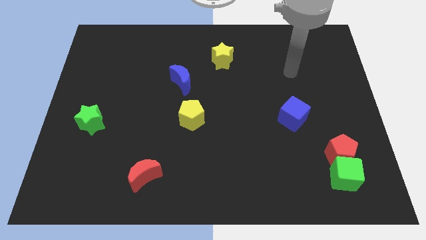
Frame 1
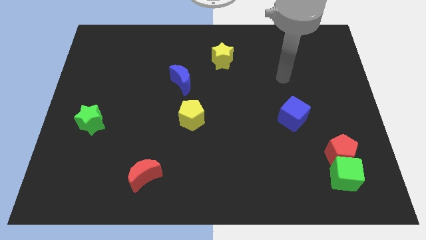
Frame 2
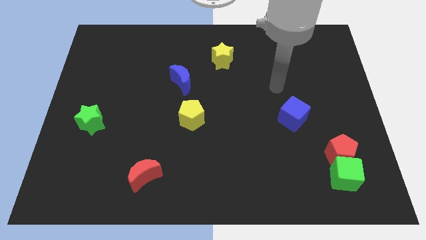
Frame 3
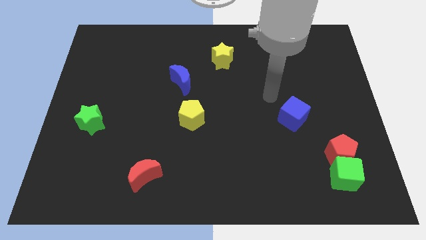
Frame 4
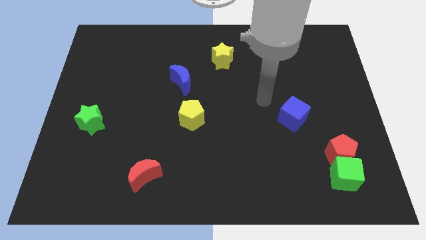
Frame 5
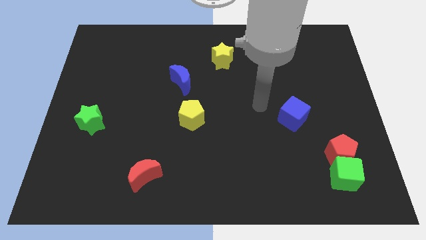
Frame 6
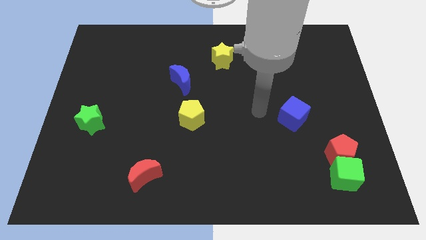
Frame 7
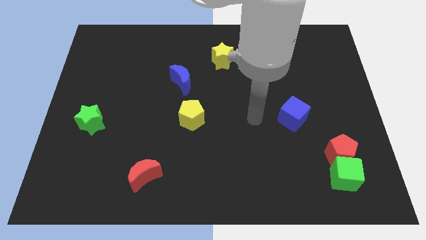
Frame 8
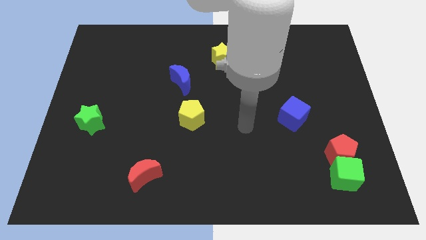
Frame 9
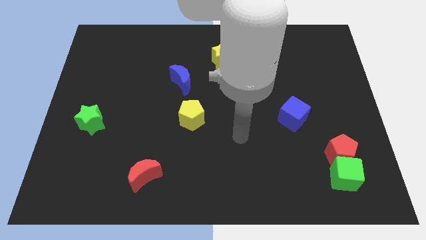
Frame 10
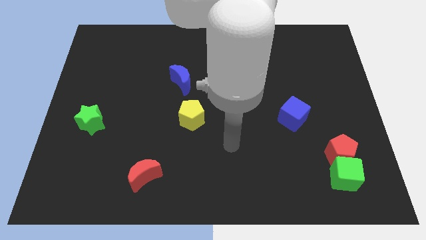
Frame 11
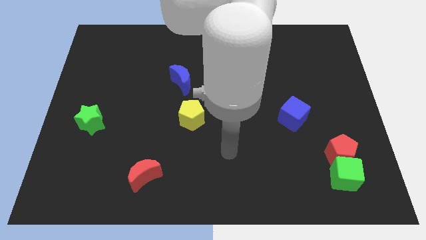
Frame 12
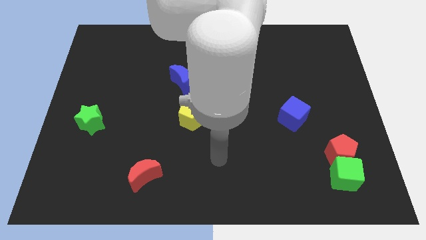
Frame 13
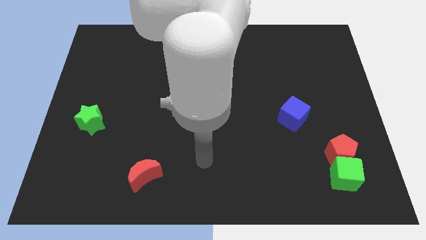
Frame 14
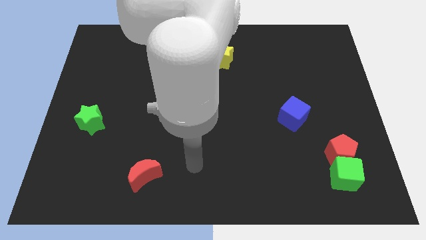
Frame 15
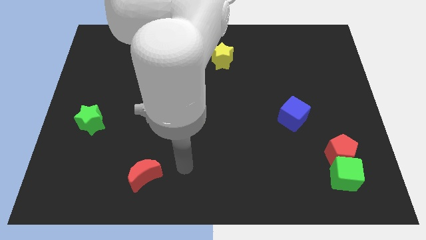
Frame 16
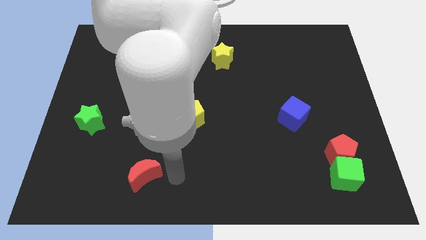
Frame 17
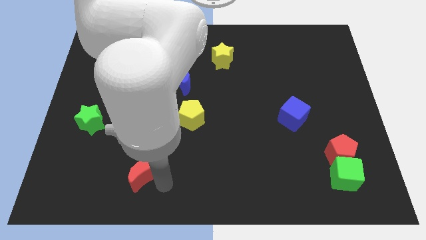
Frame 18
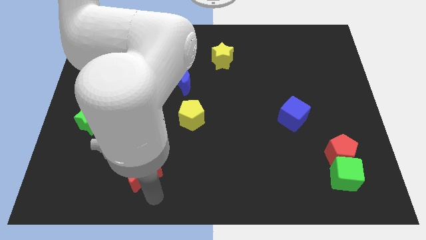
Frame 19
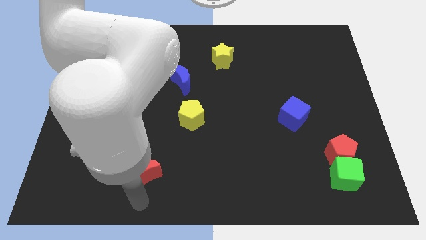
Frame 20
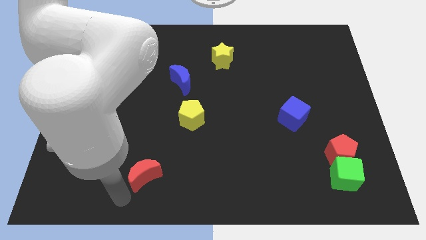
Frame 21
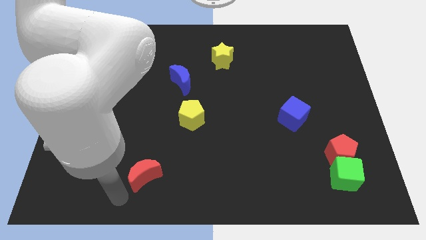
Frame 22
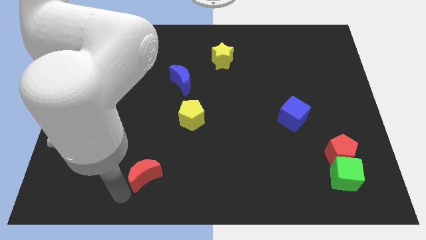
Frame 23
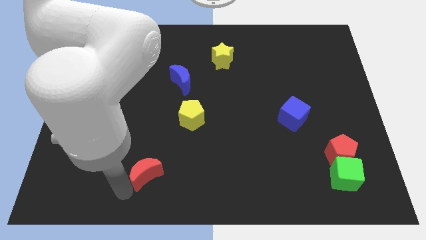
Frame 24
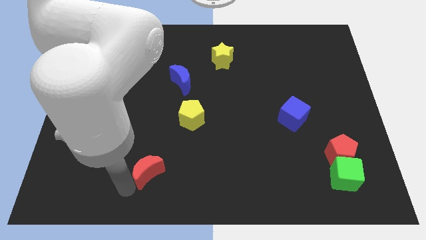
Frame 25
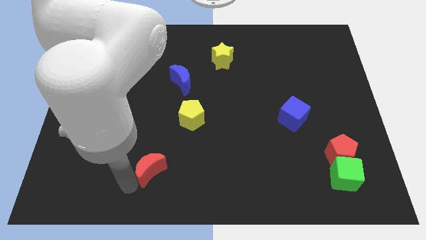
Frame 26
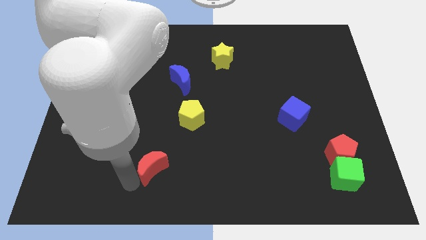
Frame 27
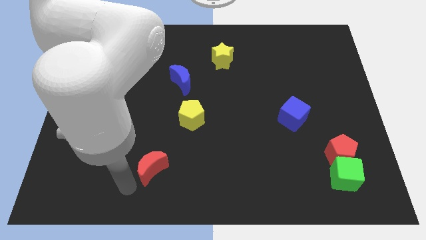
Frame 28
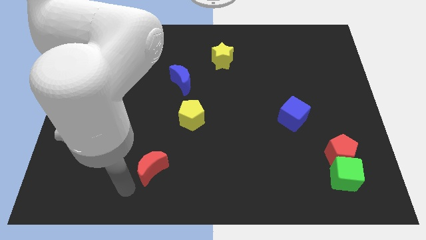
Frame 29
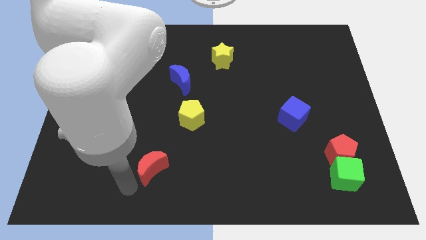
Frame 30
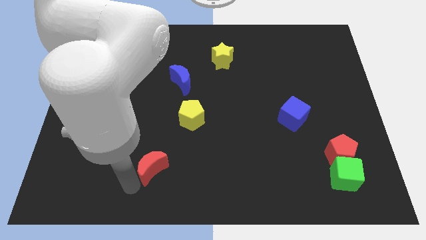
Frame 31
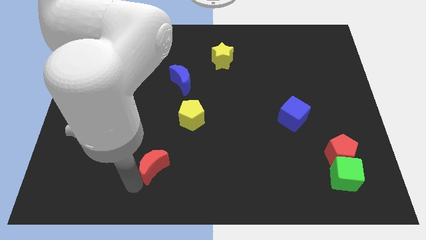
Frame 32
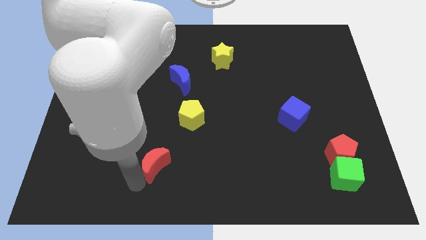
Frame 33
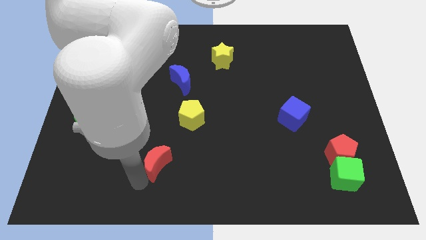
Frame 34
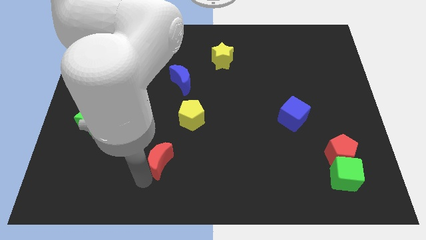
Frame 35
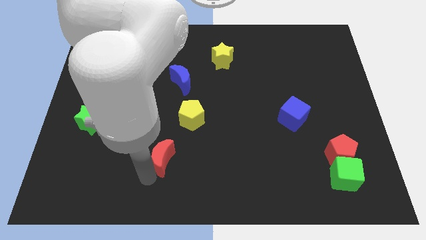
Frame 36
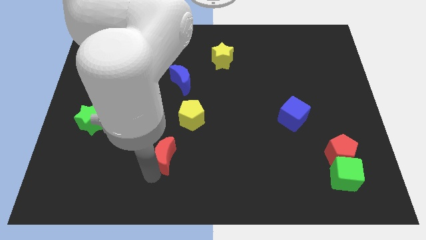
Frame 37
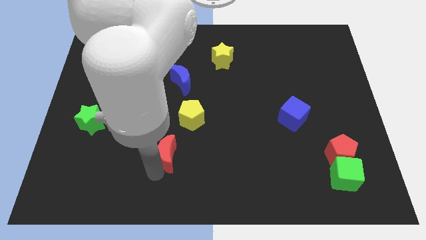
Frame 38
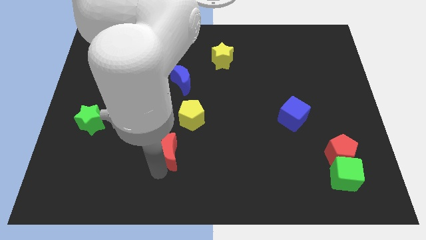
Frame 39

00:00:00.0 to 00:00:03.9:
push the red moon up and right slightly

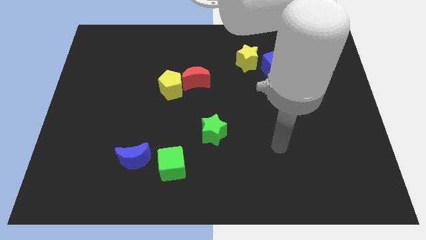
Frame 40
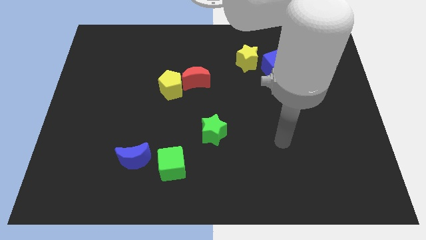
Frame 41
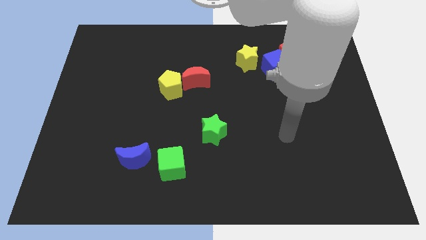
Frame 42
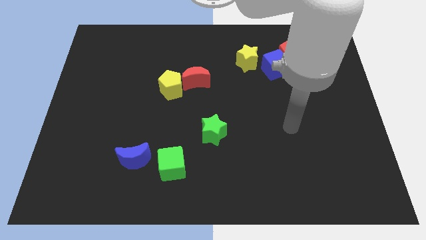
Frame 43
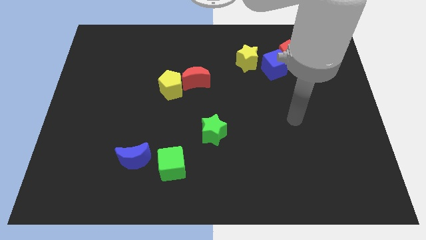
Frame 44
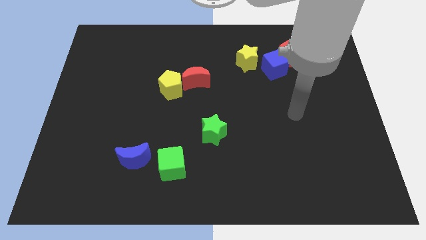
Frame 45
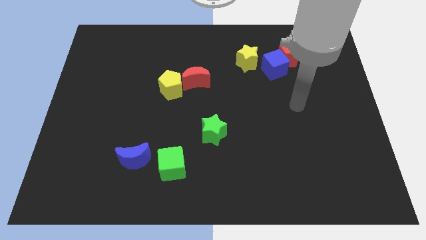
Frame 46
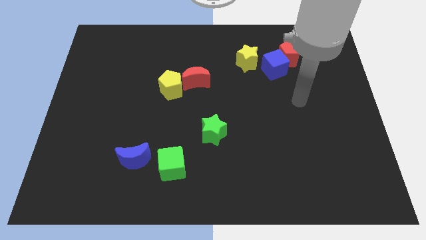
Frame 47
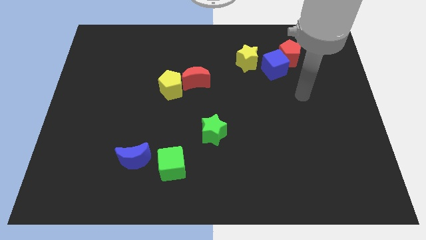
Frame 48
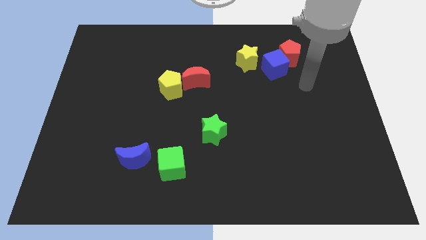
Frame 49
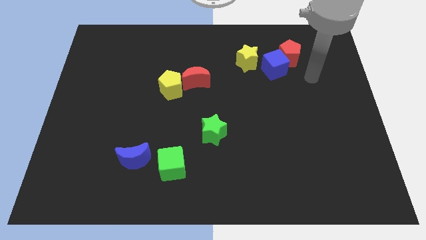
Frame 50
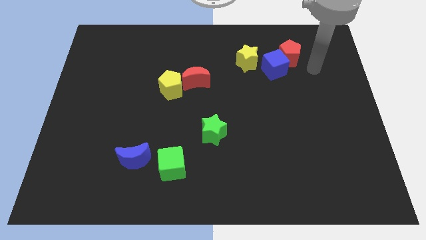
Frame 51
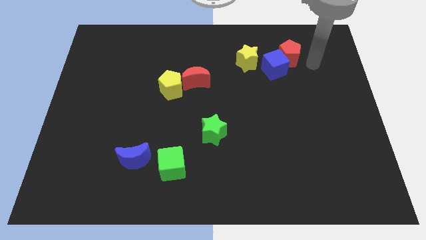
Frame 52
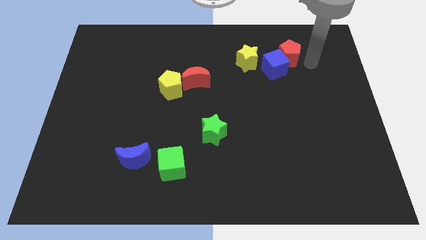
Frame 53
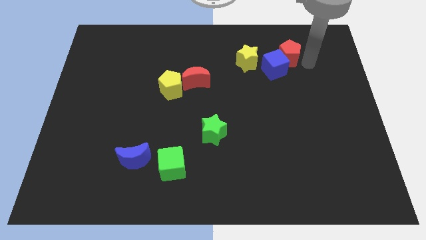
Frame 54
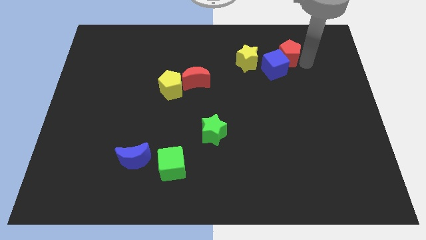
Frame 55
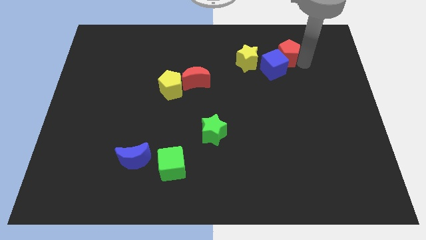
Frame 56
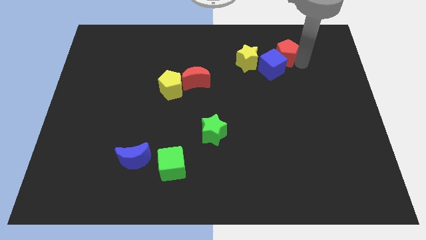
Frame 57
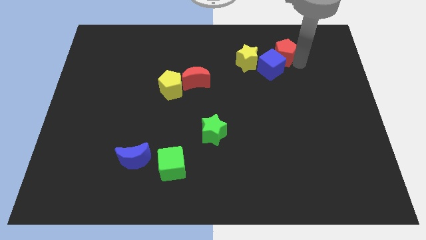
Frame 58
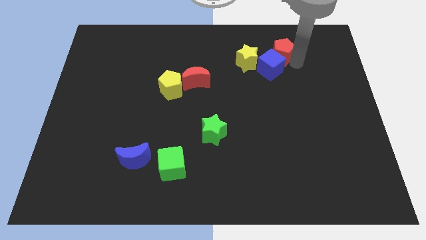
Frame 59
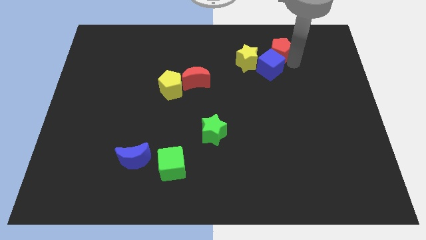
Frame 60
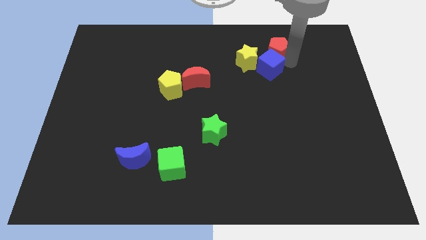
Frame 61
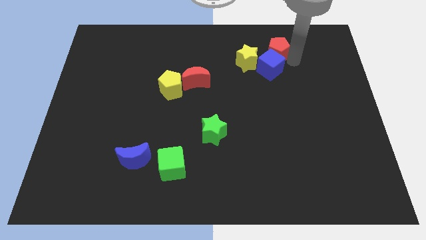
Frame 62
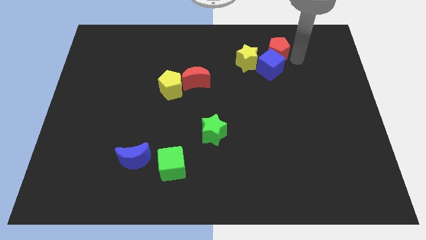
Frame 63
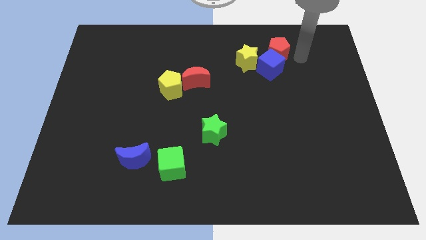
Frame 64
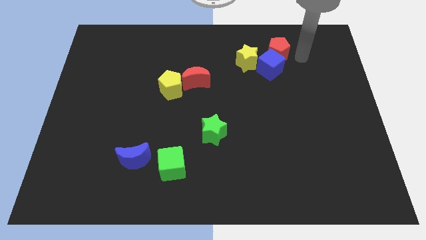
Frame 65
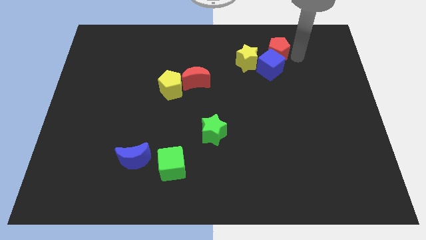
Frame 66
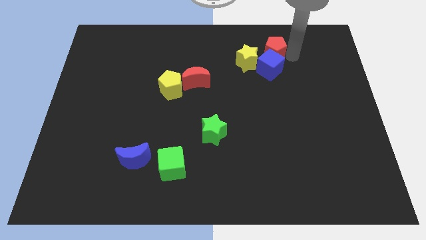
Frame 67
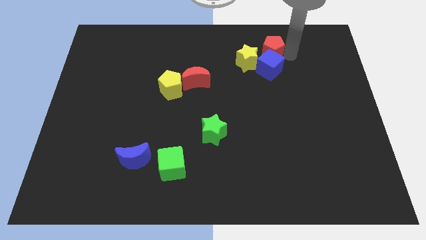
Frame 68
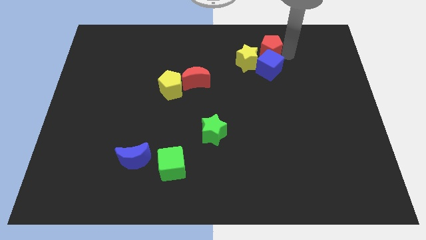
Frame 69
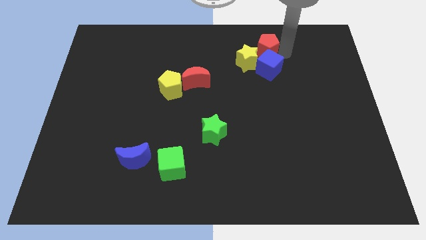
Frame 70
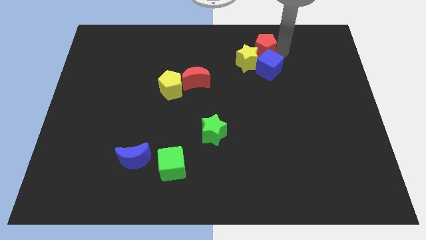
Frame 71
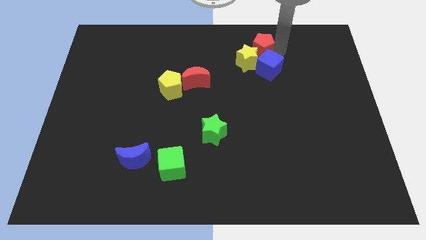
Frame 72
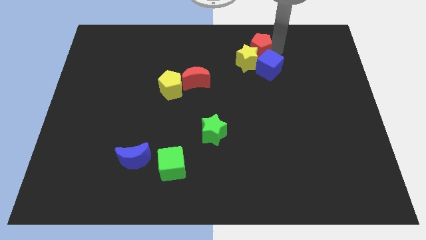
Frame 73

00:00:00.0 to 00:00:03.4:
slide the red pentagon a bit left

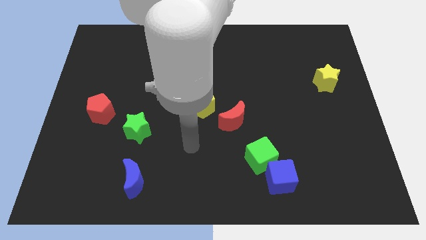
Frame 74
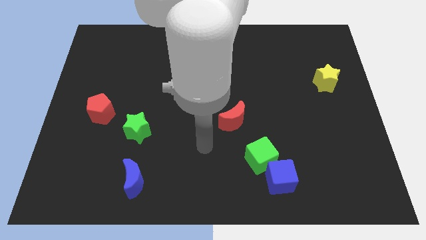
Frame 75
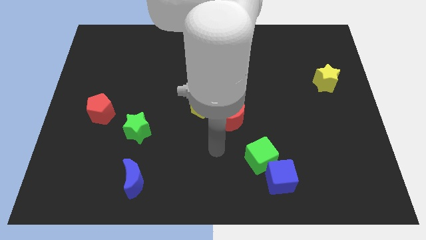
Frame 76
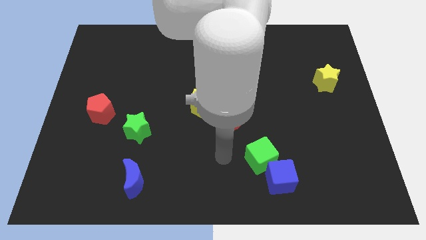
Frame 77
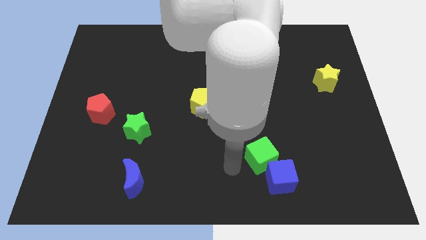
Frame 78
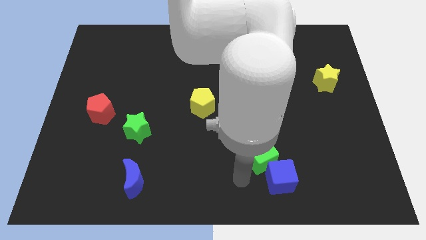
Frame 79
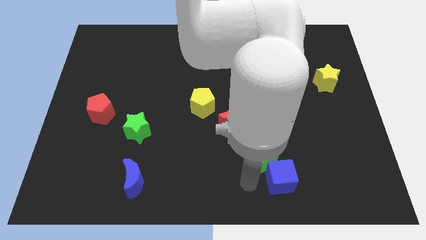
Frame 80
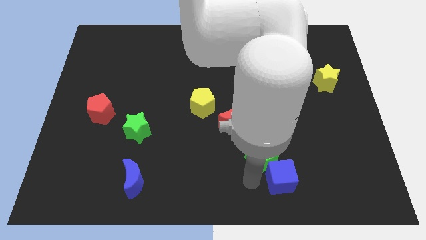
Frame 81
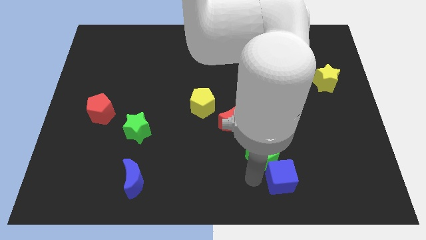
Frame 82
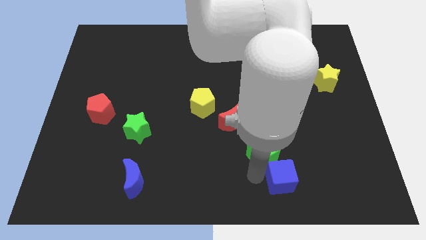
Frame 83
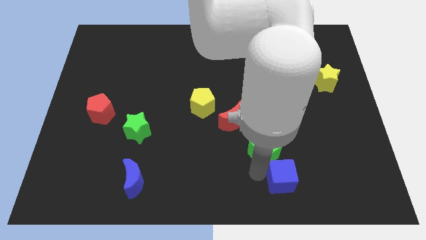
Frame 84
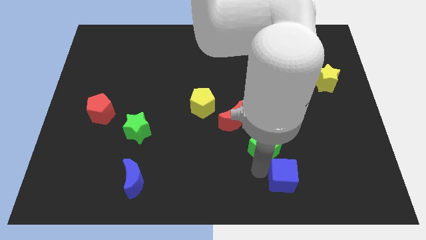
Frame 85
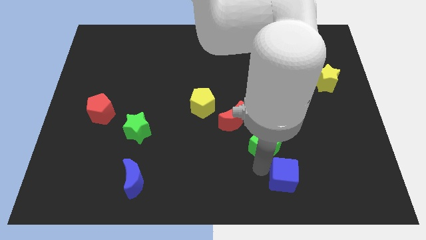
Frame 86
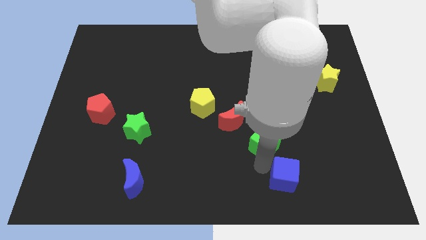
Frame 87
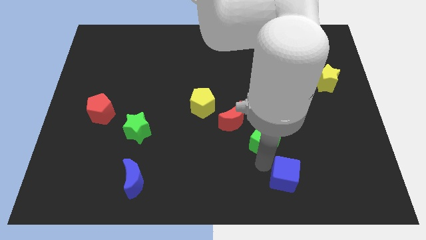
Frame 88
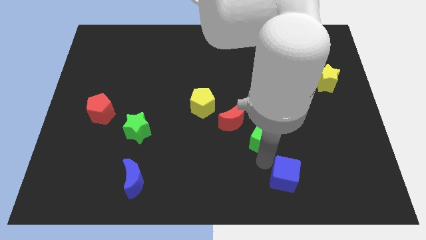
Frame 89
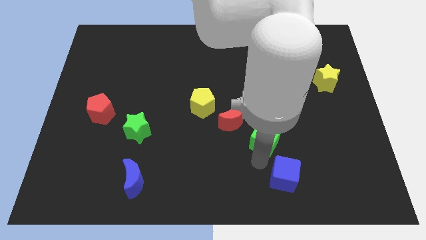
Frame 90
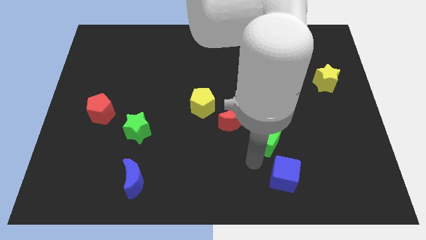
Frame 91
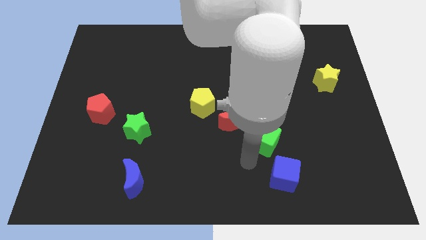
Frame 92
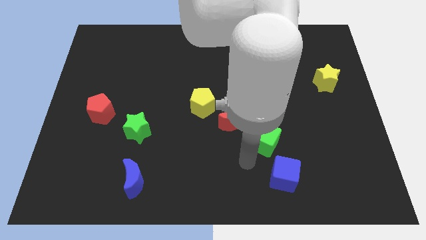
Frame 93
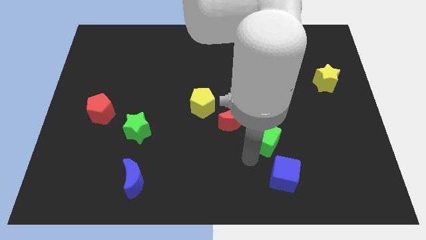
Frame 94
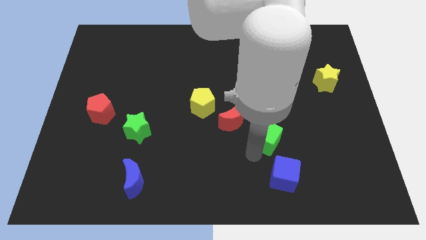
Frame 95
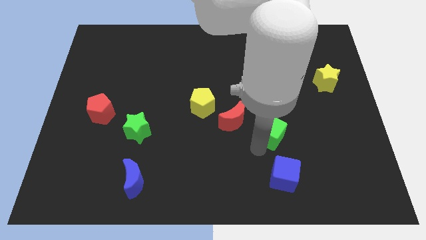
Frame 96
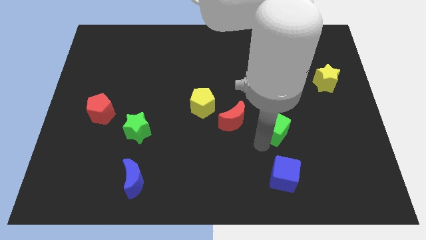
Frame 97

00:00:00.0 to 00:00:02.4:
slide the green cube a little bit diagonally upwards and right
